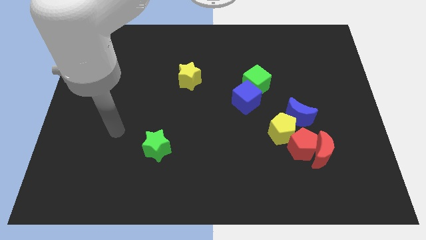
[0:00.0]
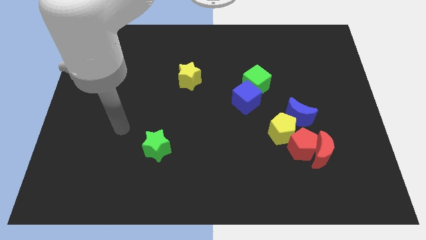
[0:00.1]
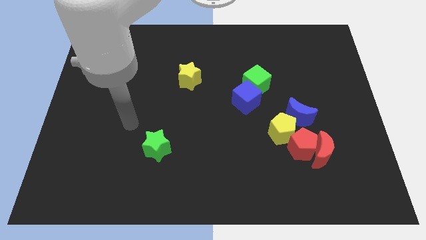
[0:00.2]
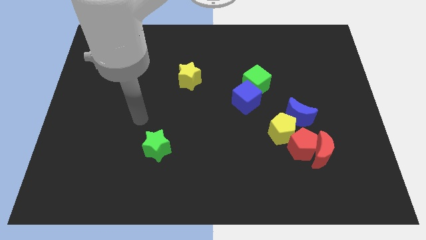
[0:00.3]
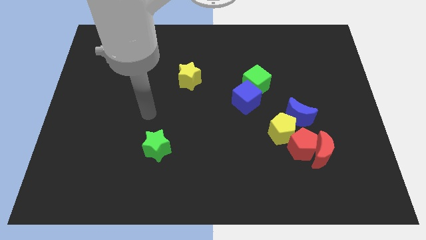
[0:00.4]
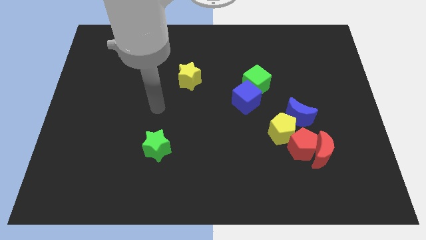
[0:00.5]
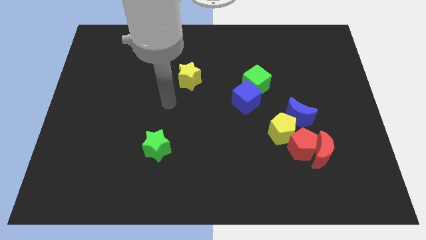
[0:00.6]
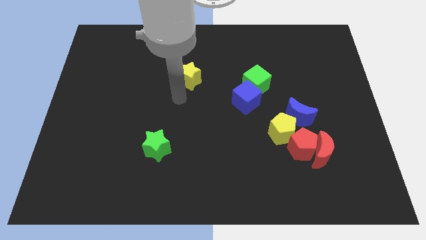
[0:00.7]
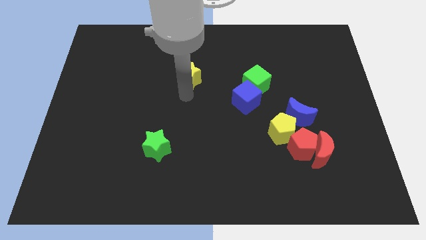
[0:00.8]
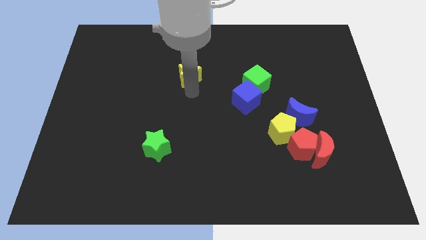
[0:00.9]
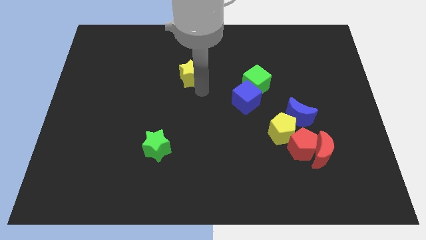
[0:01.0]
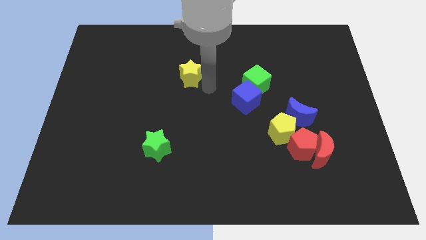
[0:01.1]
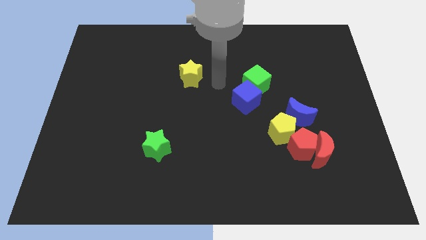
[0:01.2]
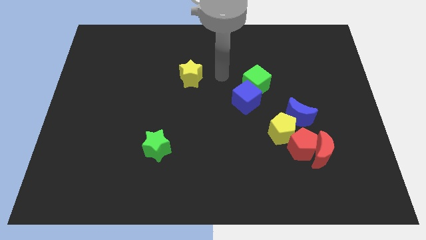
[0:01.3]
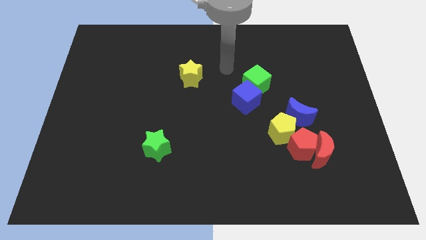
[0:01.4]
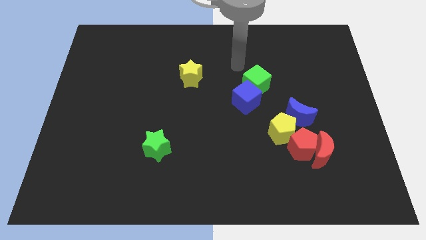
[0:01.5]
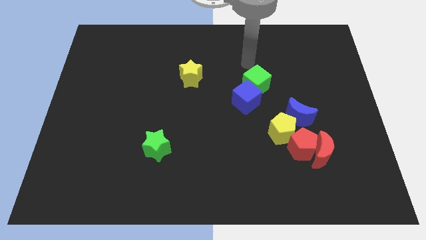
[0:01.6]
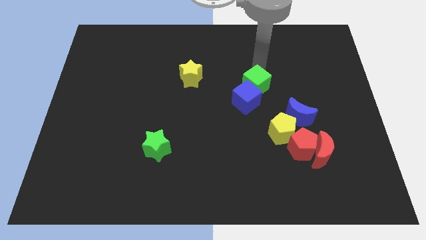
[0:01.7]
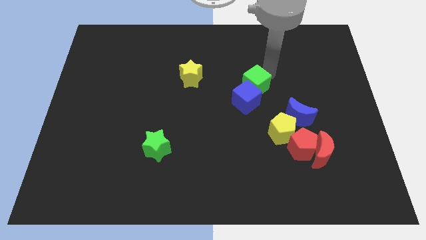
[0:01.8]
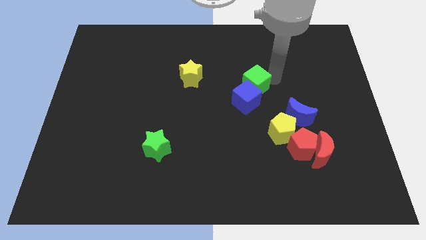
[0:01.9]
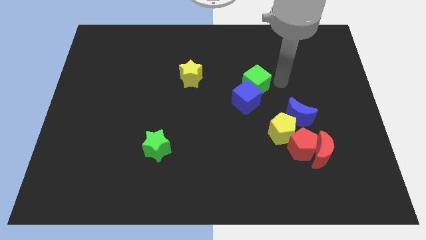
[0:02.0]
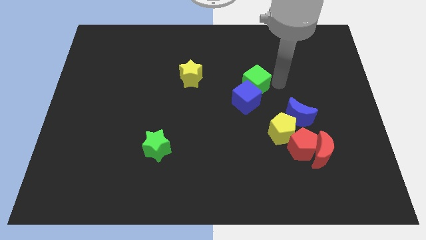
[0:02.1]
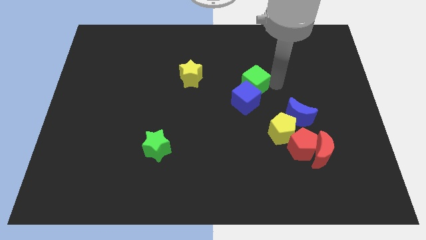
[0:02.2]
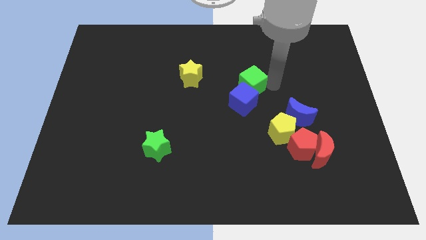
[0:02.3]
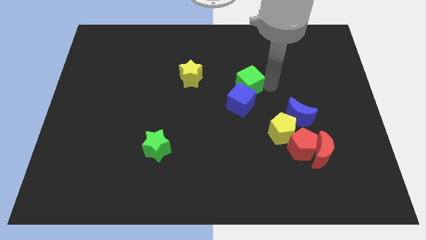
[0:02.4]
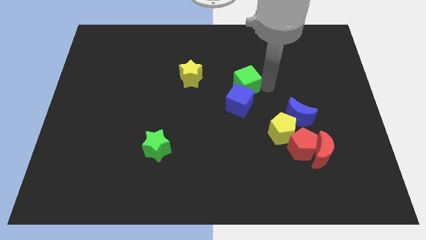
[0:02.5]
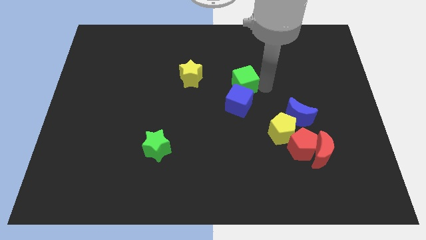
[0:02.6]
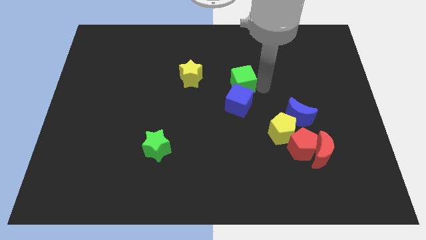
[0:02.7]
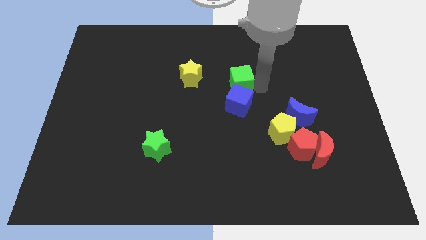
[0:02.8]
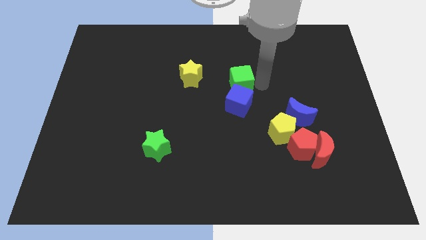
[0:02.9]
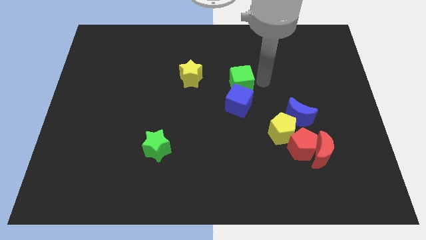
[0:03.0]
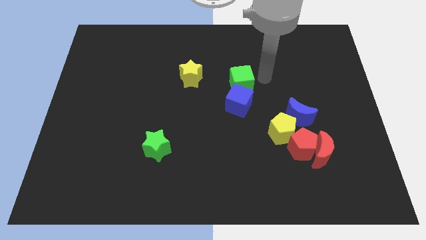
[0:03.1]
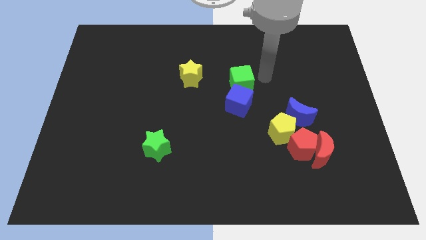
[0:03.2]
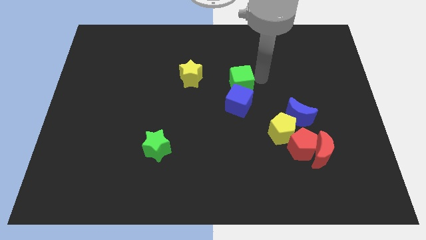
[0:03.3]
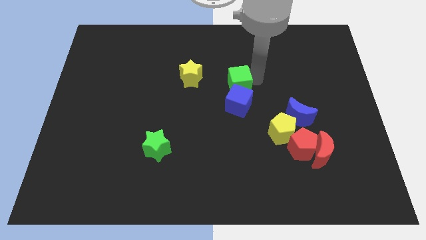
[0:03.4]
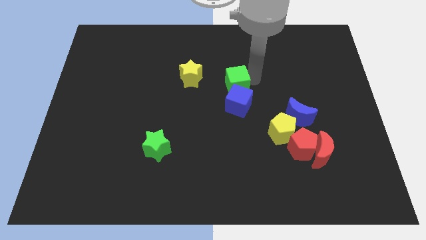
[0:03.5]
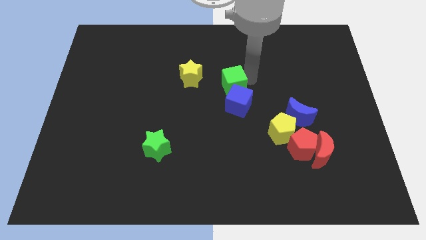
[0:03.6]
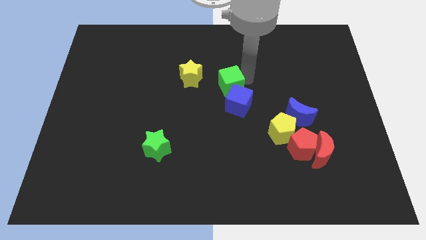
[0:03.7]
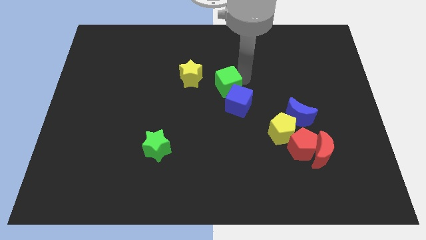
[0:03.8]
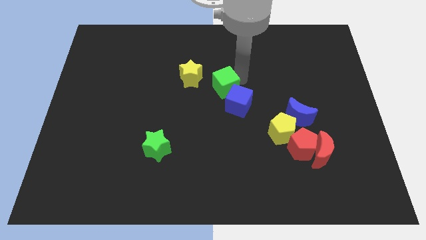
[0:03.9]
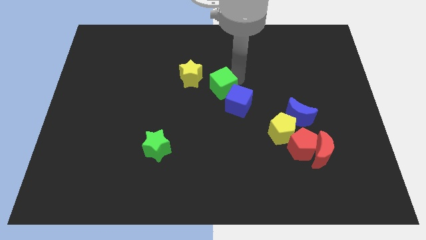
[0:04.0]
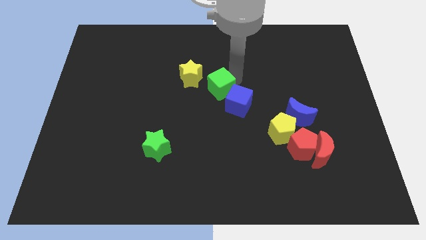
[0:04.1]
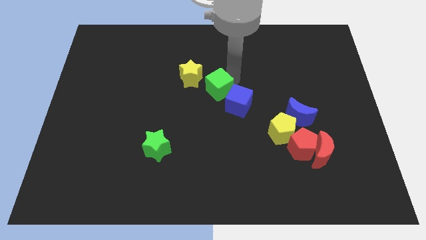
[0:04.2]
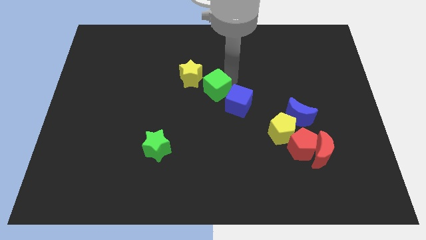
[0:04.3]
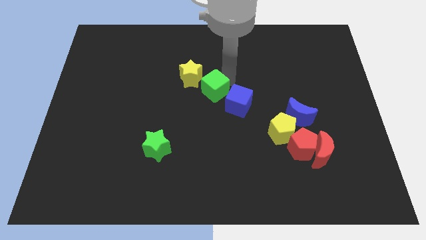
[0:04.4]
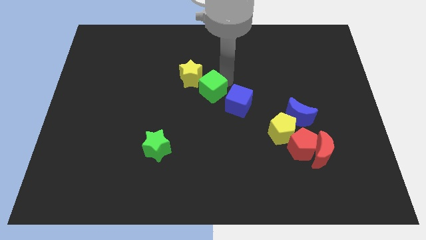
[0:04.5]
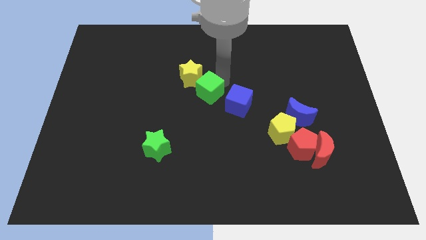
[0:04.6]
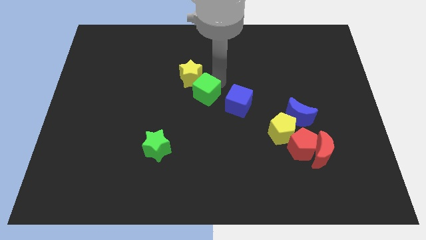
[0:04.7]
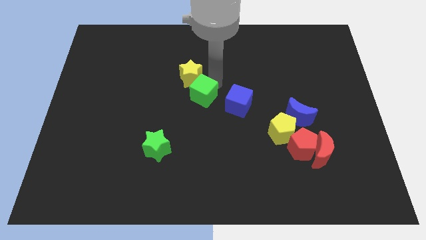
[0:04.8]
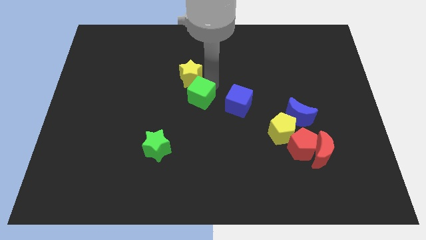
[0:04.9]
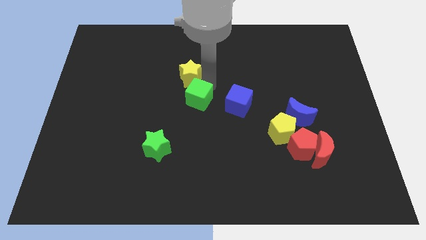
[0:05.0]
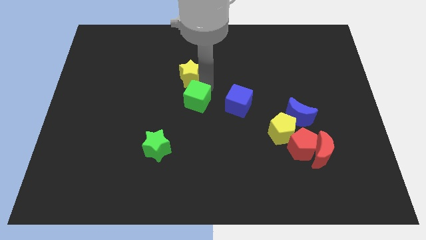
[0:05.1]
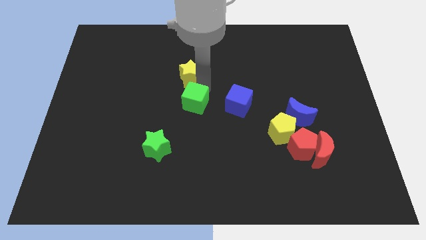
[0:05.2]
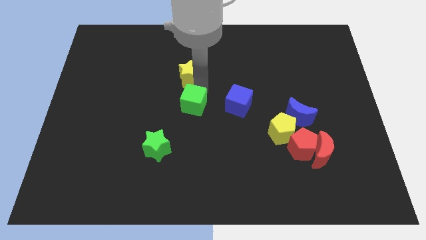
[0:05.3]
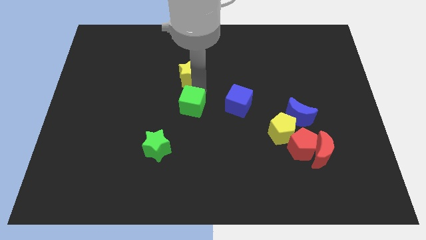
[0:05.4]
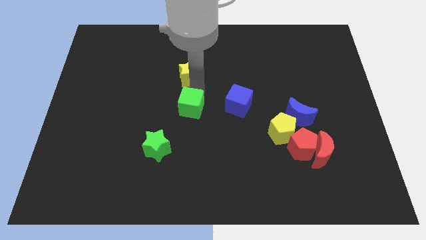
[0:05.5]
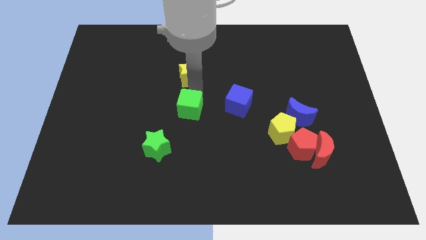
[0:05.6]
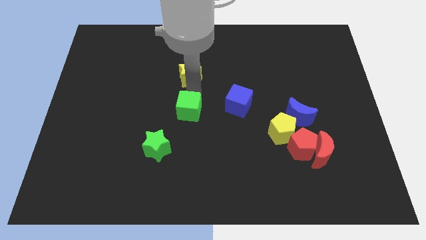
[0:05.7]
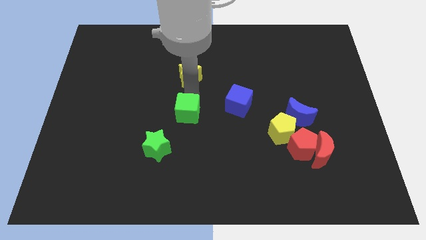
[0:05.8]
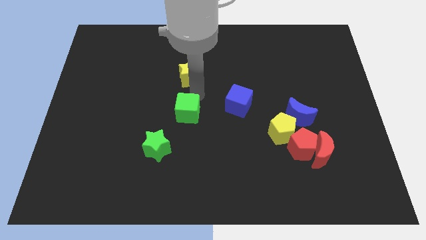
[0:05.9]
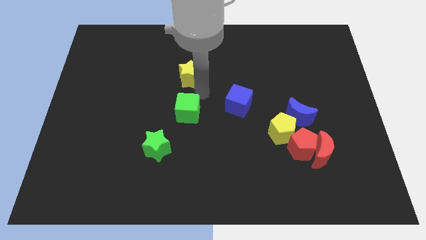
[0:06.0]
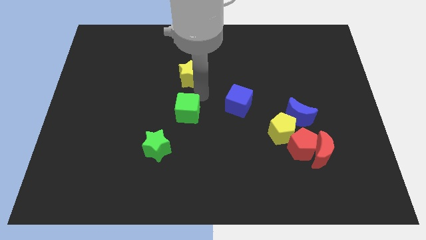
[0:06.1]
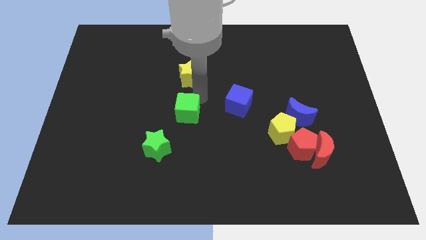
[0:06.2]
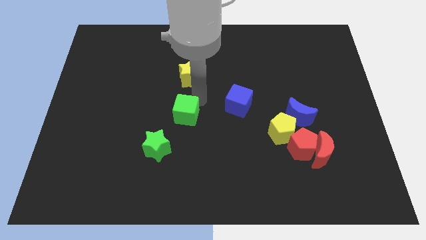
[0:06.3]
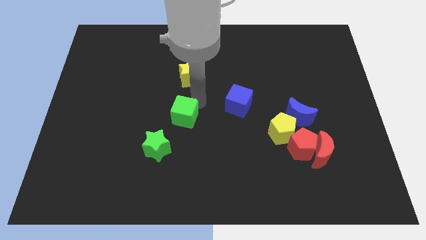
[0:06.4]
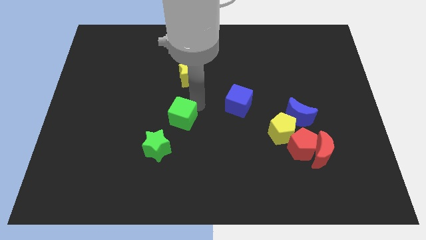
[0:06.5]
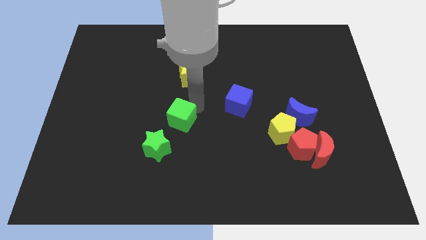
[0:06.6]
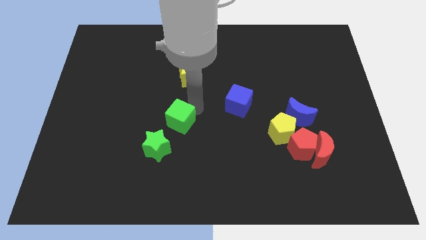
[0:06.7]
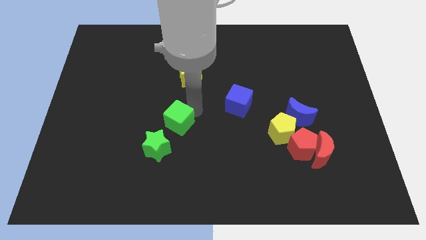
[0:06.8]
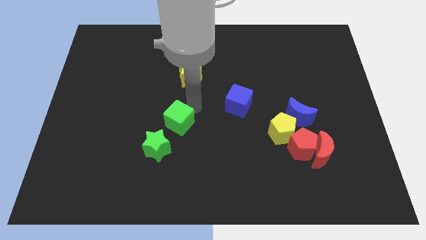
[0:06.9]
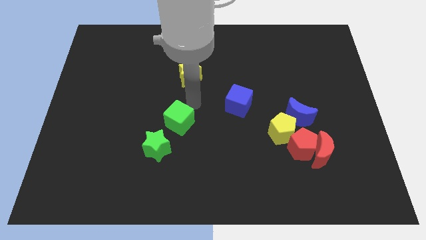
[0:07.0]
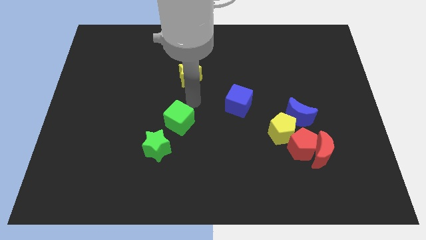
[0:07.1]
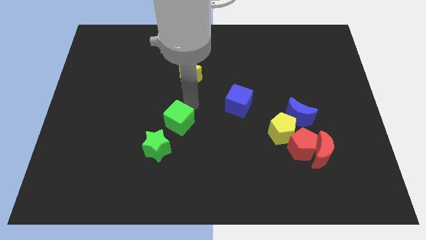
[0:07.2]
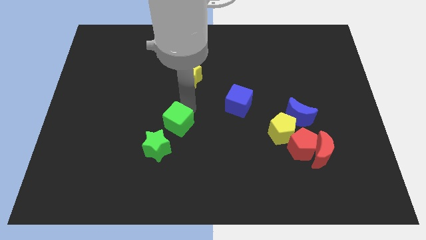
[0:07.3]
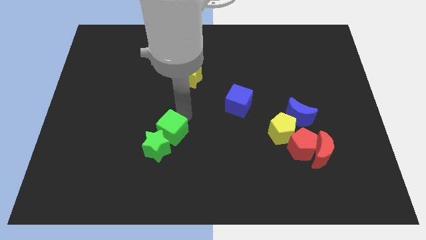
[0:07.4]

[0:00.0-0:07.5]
put the green cube towards the green star

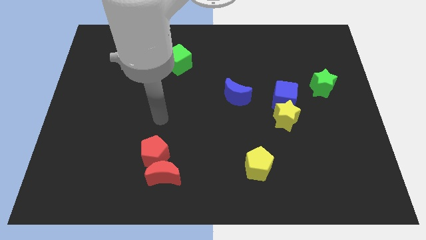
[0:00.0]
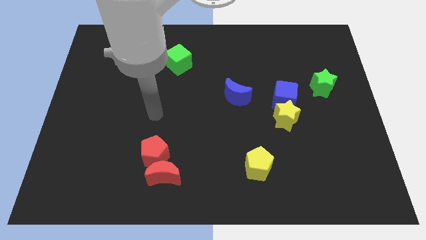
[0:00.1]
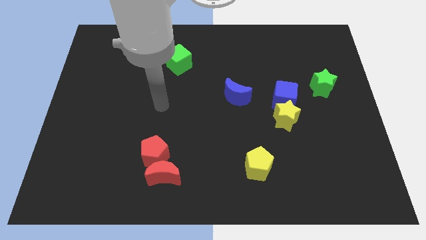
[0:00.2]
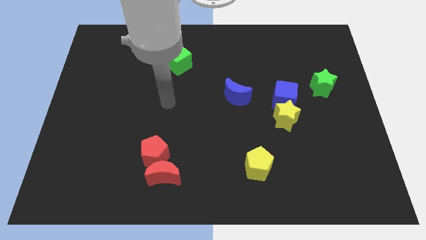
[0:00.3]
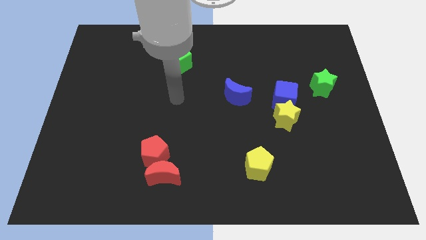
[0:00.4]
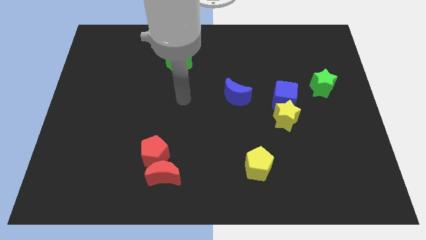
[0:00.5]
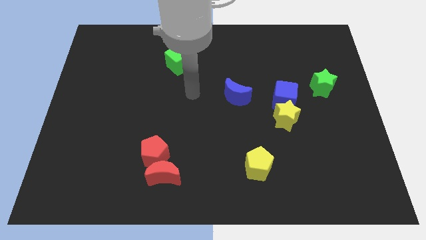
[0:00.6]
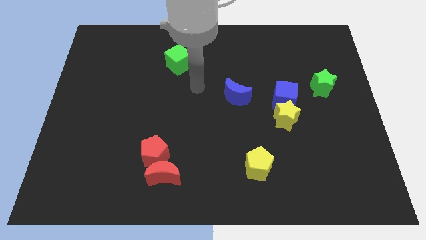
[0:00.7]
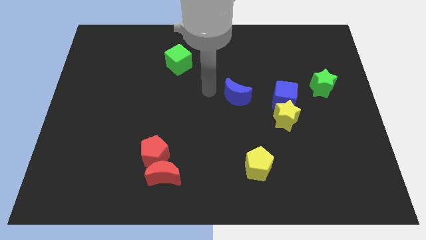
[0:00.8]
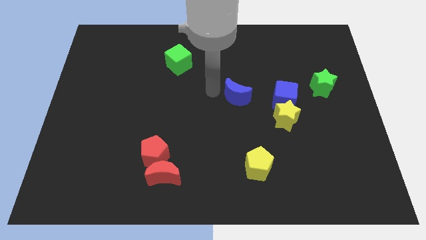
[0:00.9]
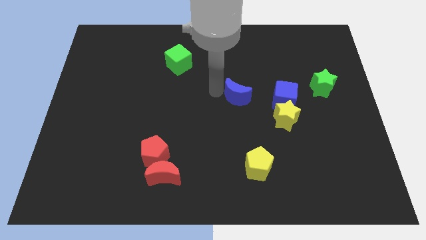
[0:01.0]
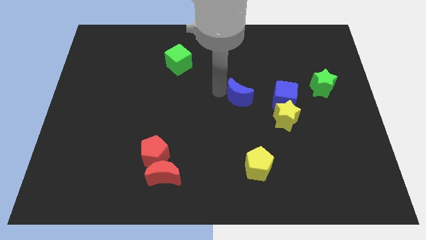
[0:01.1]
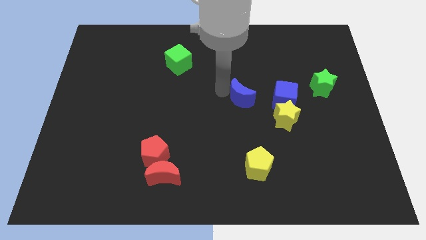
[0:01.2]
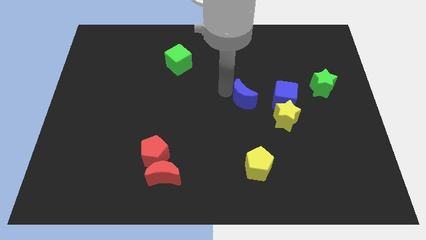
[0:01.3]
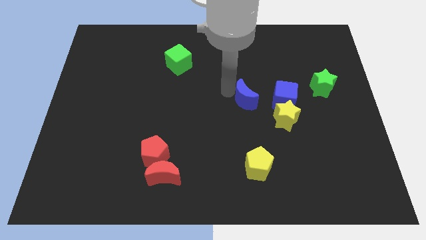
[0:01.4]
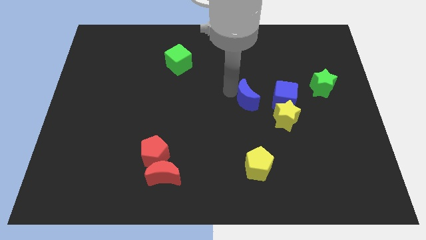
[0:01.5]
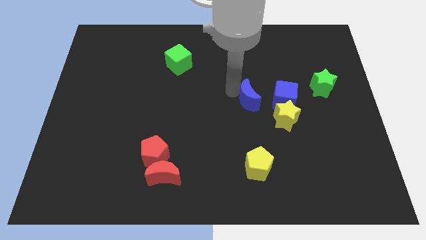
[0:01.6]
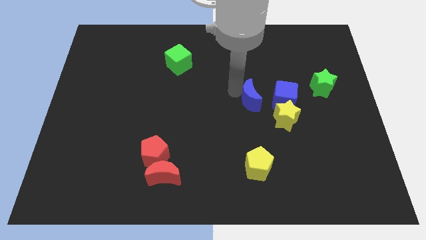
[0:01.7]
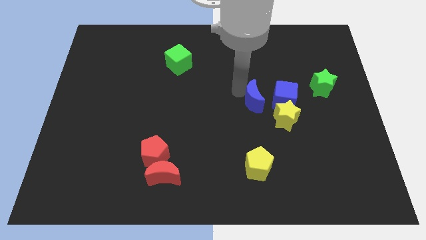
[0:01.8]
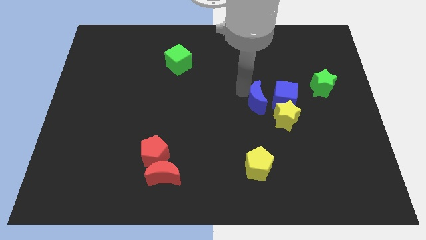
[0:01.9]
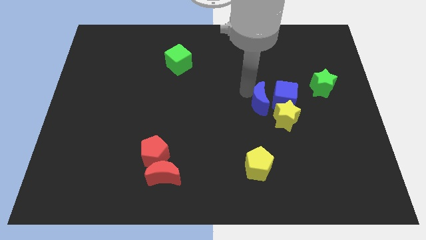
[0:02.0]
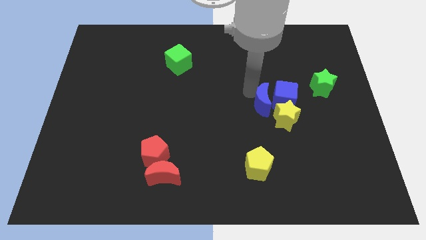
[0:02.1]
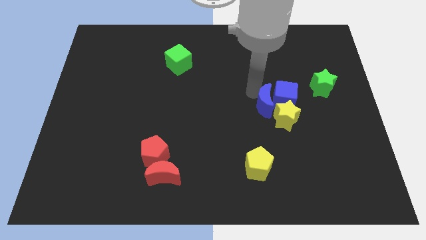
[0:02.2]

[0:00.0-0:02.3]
push the blue moon to the yellow star
